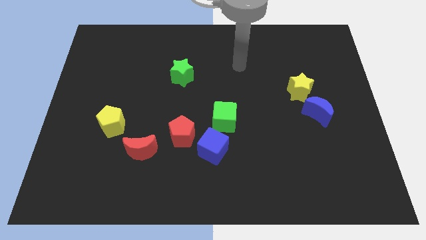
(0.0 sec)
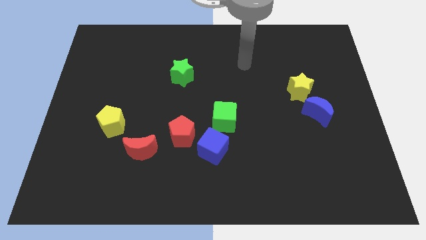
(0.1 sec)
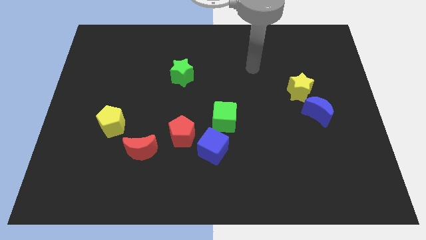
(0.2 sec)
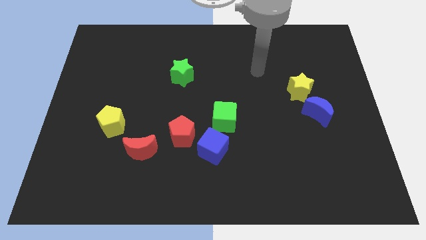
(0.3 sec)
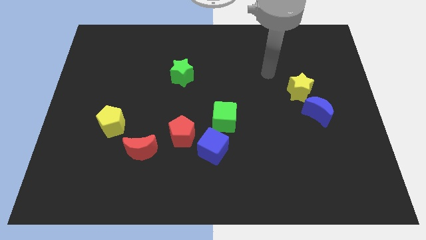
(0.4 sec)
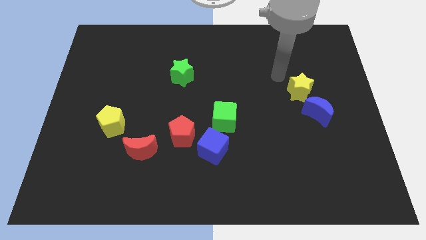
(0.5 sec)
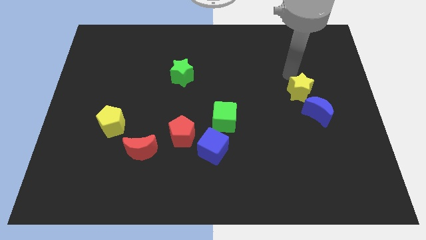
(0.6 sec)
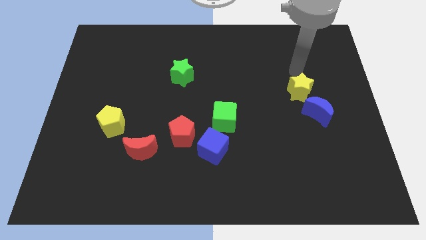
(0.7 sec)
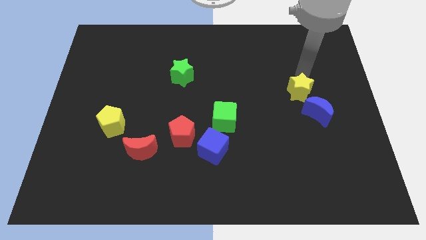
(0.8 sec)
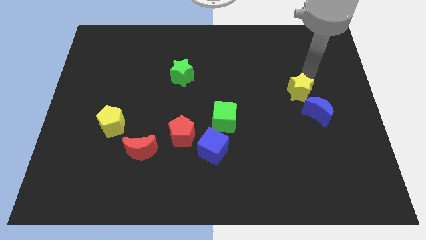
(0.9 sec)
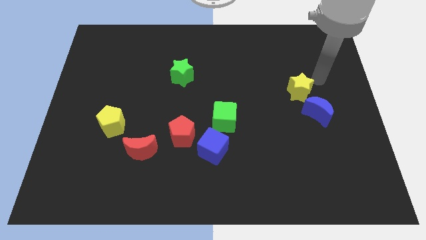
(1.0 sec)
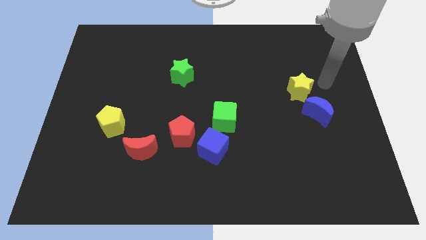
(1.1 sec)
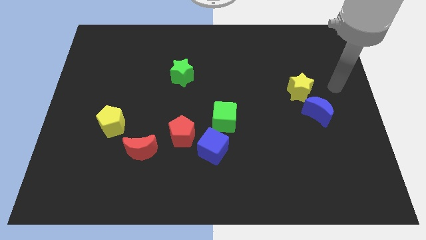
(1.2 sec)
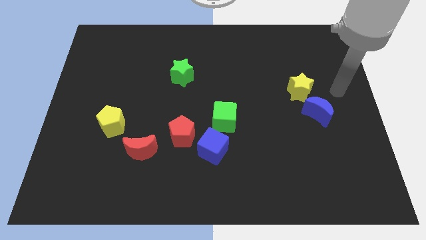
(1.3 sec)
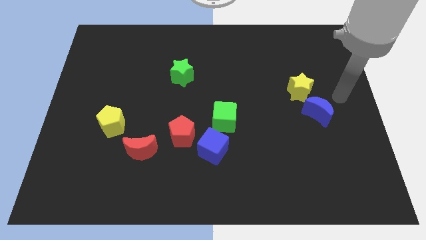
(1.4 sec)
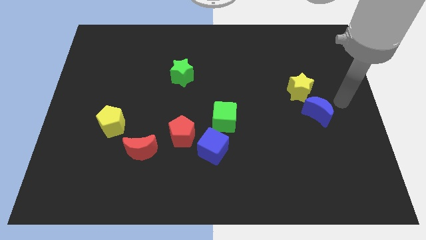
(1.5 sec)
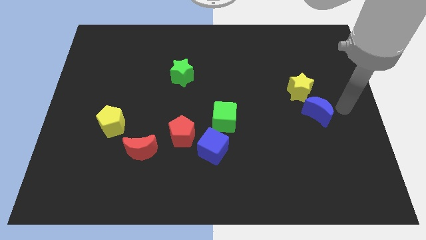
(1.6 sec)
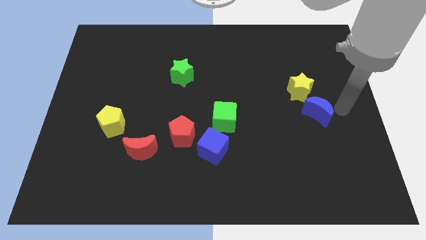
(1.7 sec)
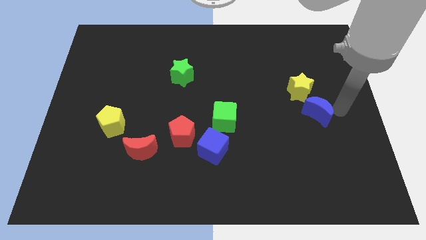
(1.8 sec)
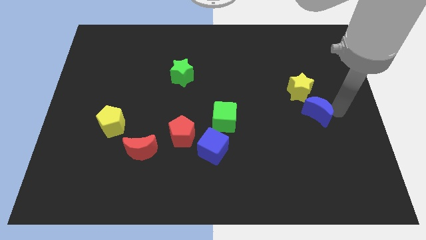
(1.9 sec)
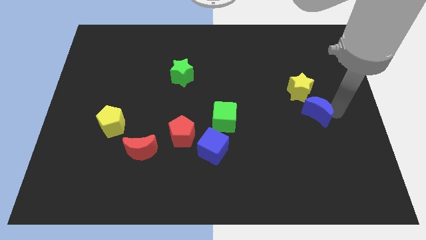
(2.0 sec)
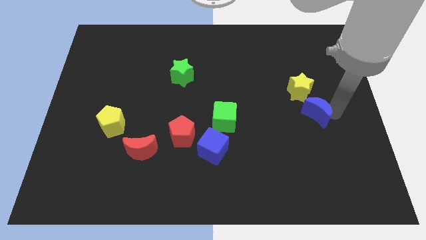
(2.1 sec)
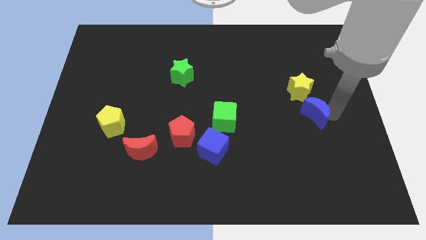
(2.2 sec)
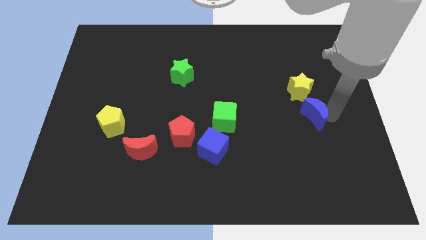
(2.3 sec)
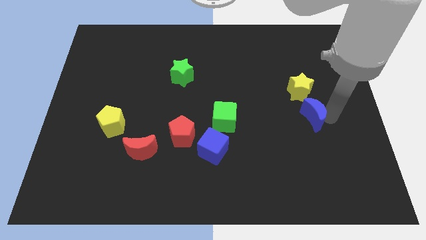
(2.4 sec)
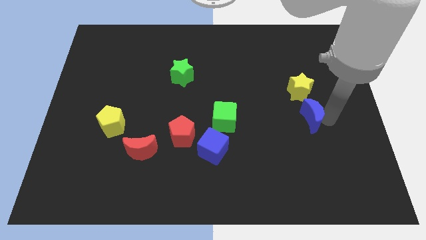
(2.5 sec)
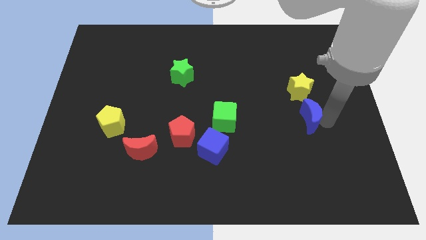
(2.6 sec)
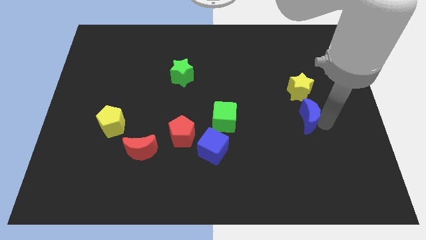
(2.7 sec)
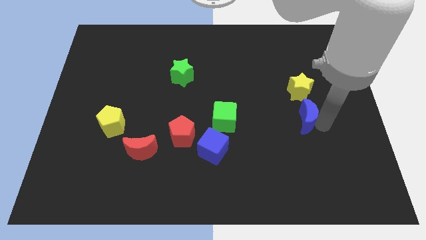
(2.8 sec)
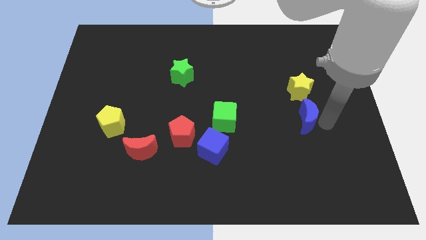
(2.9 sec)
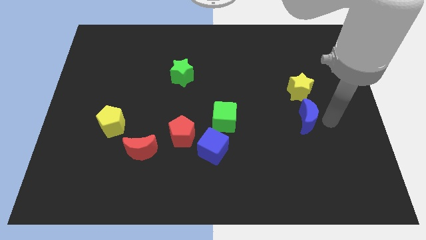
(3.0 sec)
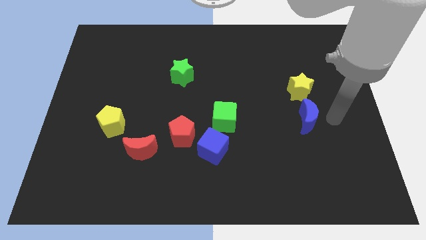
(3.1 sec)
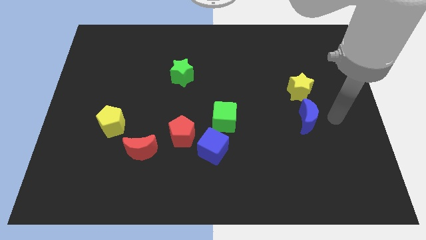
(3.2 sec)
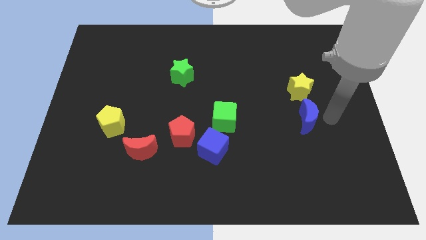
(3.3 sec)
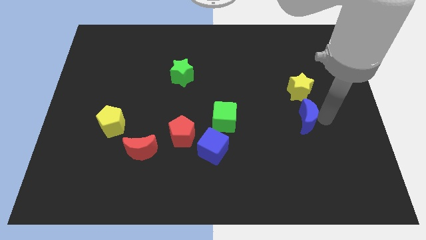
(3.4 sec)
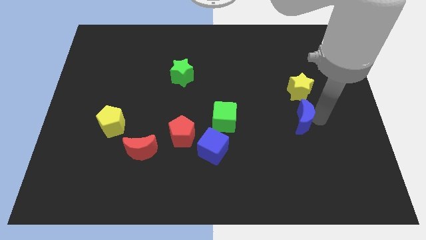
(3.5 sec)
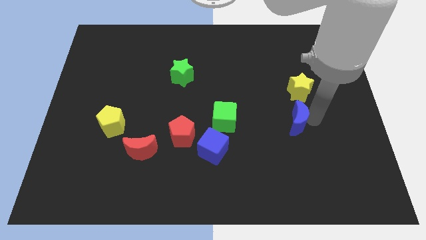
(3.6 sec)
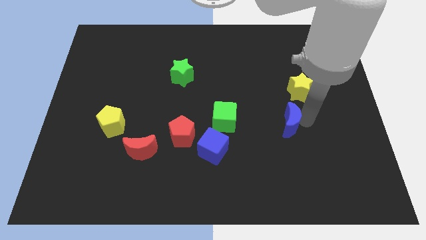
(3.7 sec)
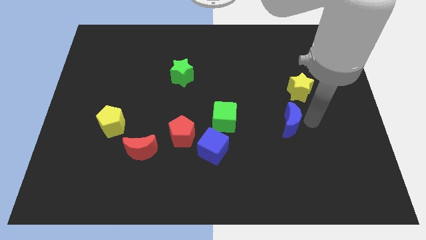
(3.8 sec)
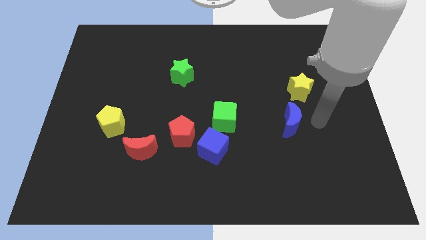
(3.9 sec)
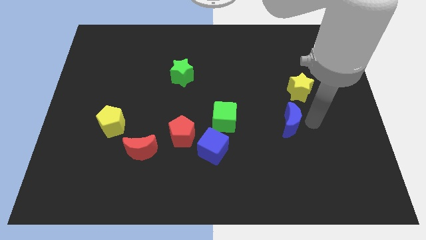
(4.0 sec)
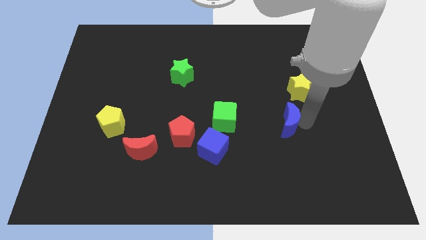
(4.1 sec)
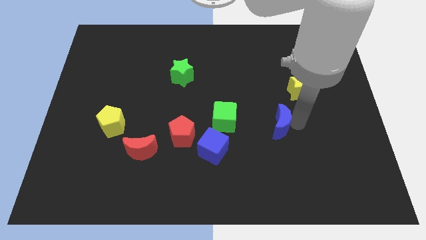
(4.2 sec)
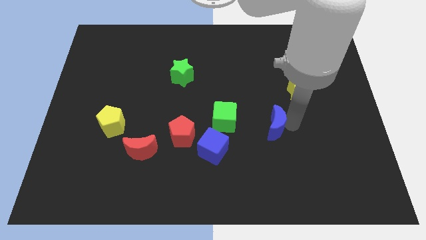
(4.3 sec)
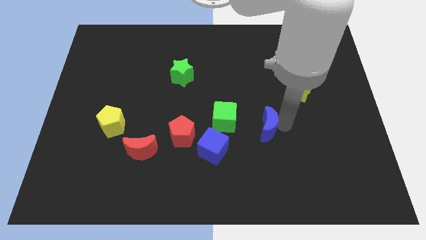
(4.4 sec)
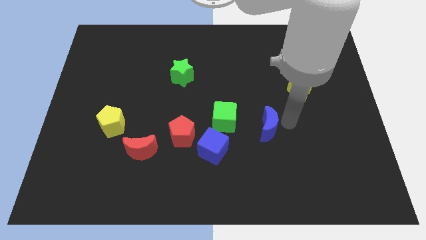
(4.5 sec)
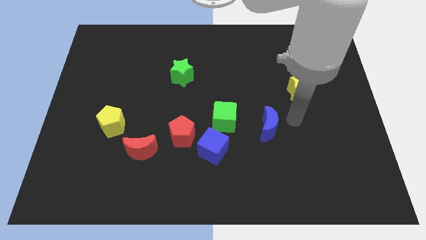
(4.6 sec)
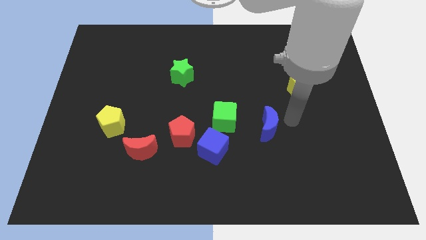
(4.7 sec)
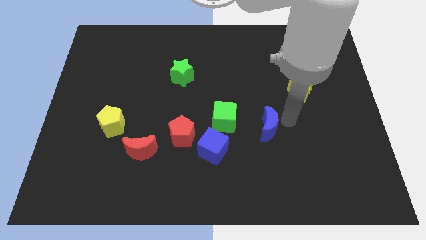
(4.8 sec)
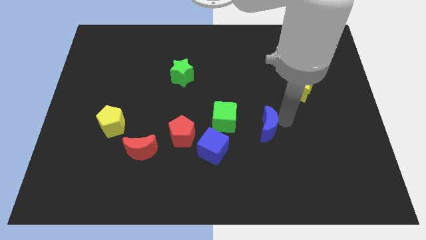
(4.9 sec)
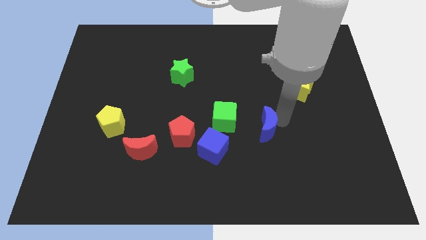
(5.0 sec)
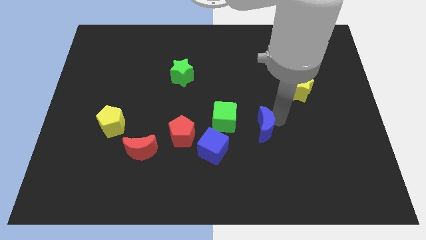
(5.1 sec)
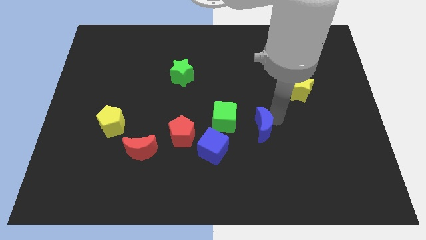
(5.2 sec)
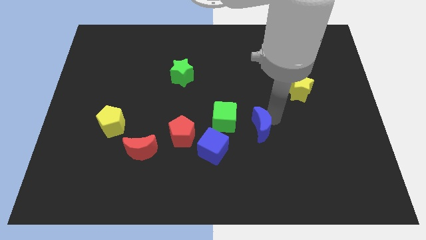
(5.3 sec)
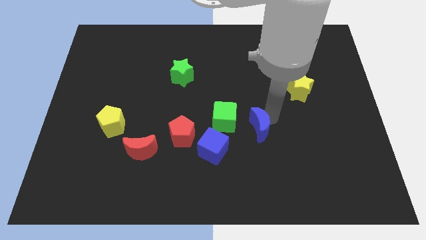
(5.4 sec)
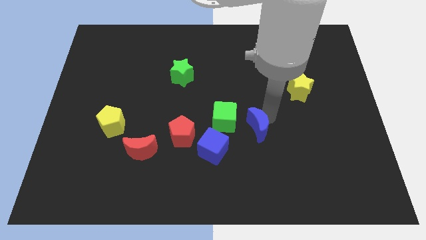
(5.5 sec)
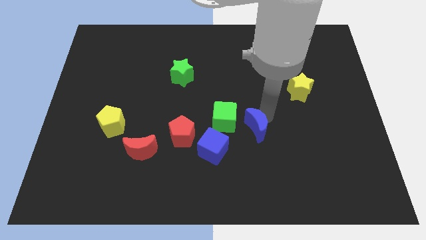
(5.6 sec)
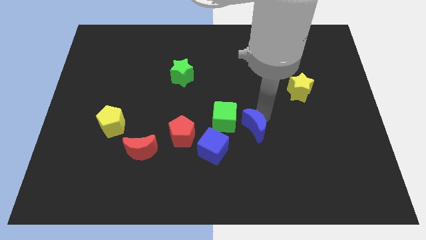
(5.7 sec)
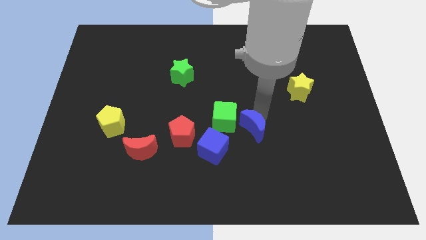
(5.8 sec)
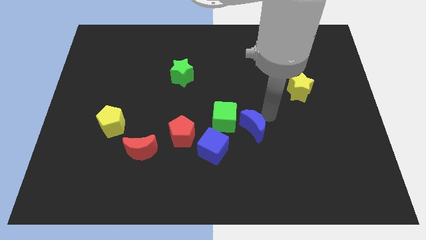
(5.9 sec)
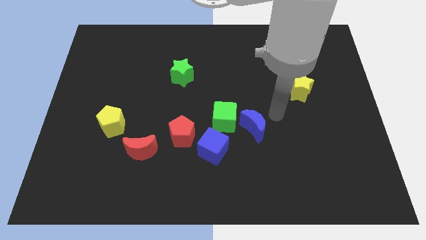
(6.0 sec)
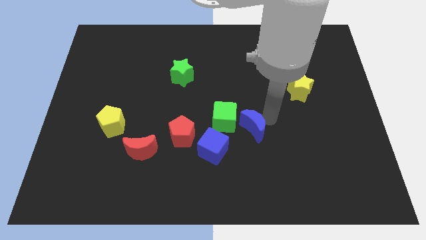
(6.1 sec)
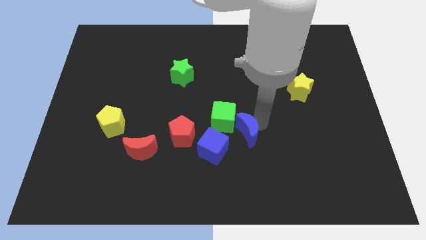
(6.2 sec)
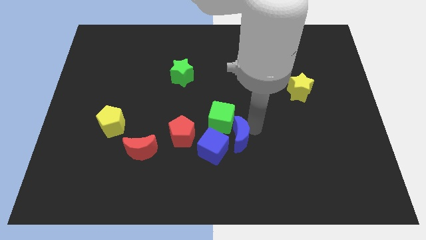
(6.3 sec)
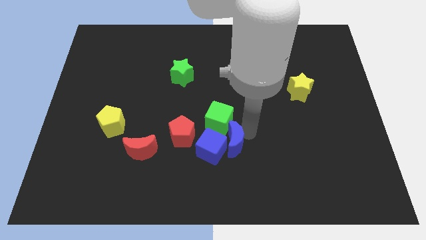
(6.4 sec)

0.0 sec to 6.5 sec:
put the blue moon to the blue cube

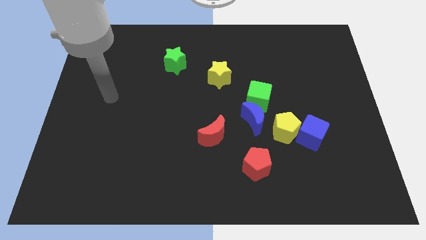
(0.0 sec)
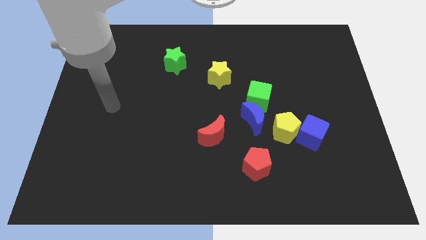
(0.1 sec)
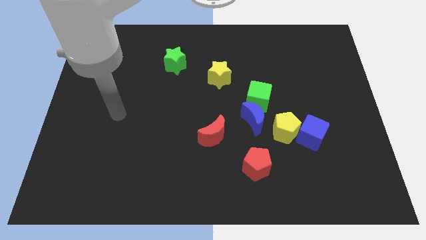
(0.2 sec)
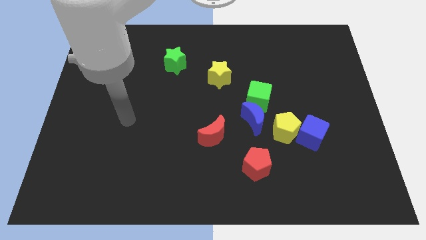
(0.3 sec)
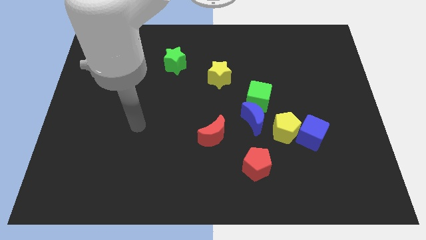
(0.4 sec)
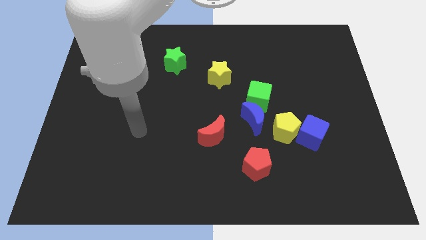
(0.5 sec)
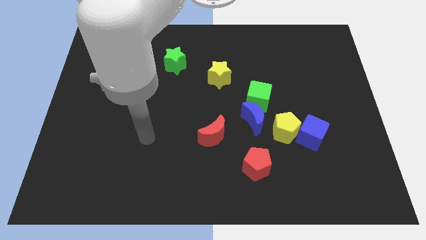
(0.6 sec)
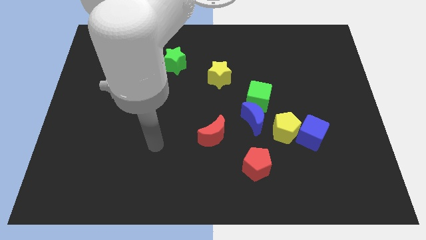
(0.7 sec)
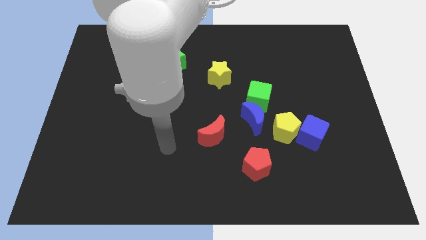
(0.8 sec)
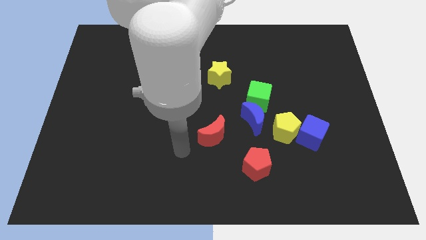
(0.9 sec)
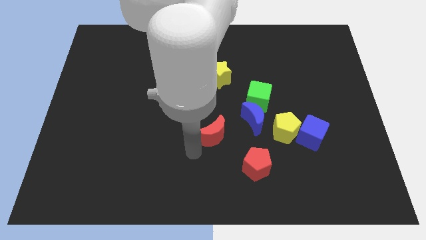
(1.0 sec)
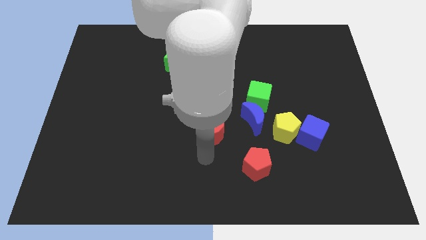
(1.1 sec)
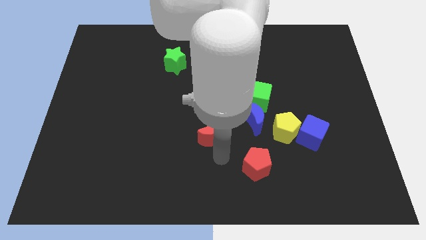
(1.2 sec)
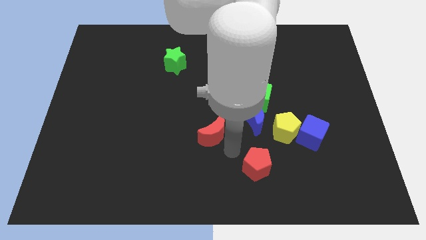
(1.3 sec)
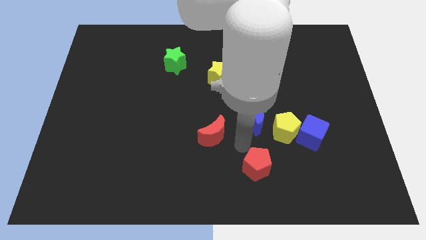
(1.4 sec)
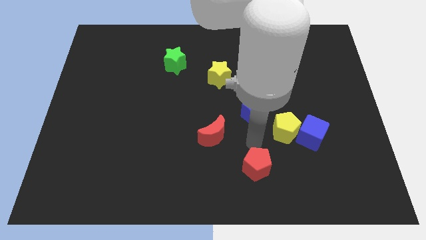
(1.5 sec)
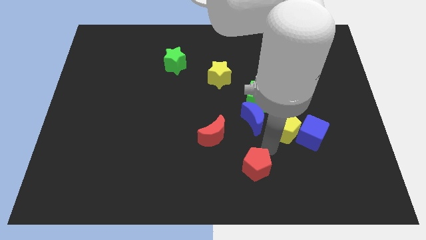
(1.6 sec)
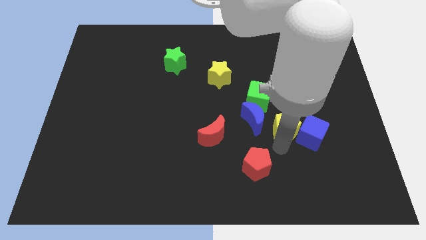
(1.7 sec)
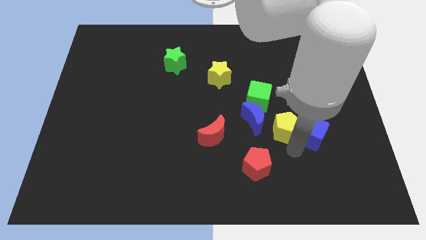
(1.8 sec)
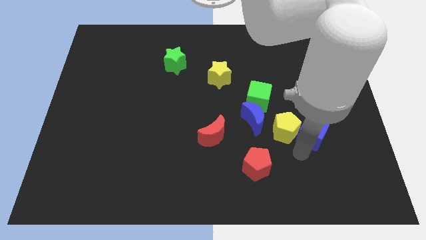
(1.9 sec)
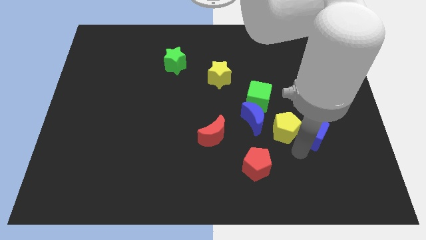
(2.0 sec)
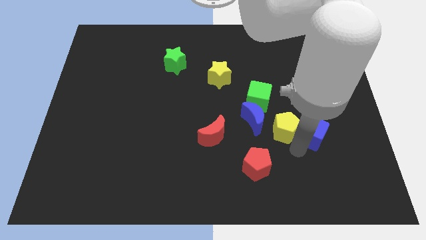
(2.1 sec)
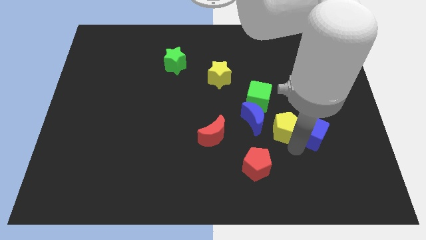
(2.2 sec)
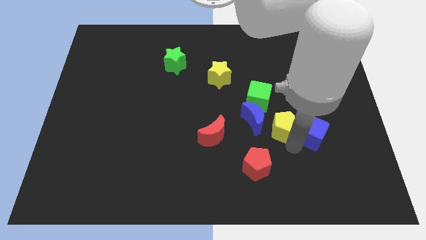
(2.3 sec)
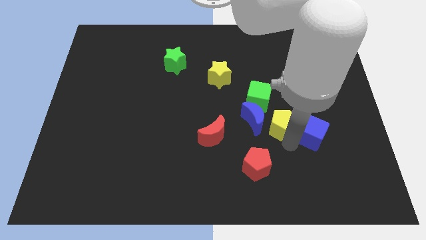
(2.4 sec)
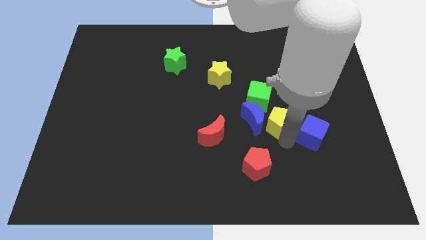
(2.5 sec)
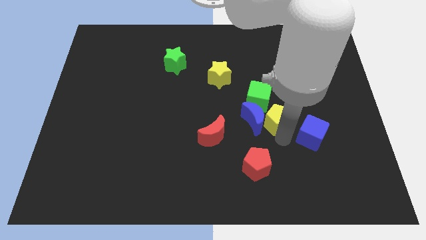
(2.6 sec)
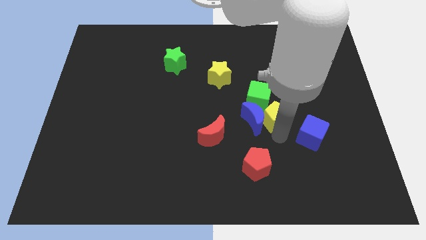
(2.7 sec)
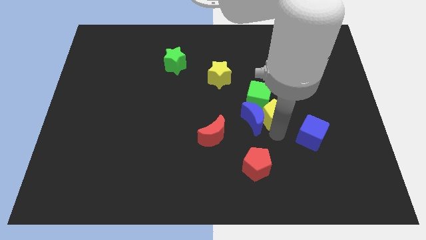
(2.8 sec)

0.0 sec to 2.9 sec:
push the yellow pentagon to the green cube
